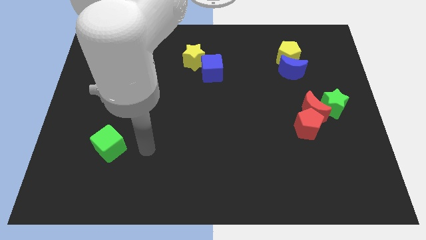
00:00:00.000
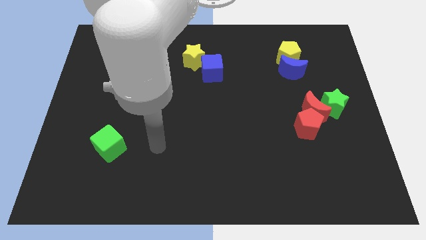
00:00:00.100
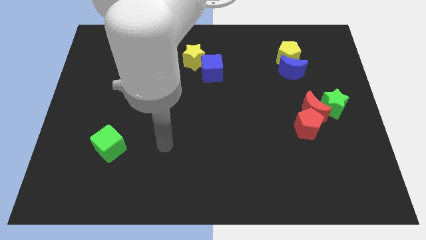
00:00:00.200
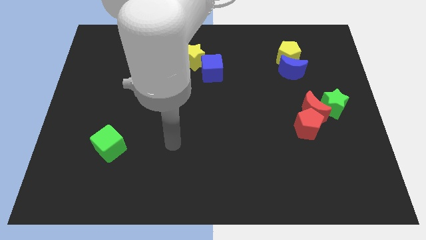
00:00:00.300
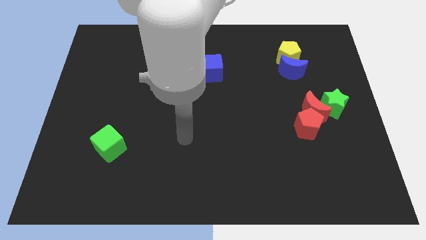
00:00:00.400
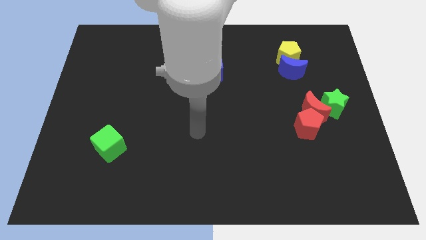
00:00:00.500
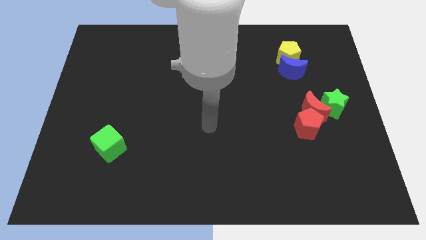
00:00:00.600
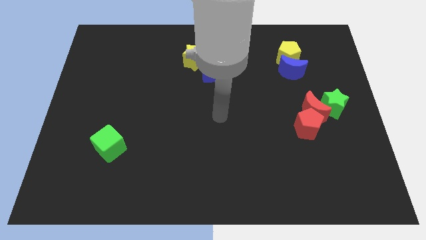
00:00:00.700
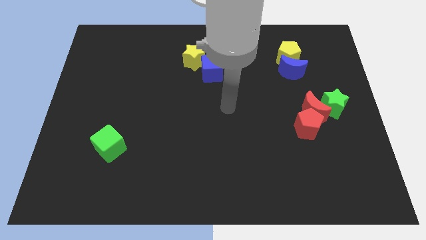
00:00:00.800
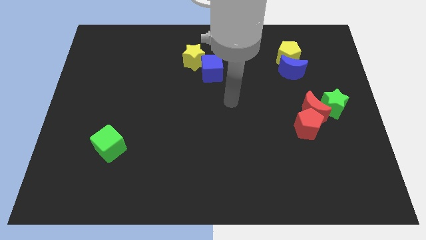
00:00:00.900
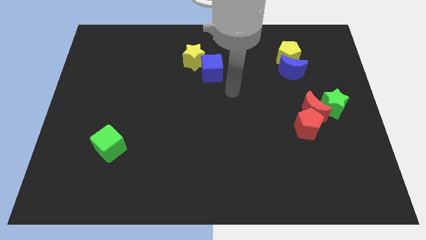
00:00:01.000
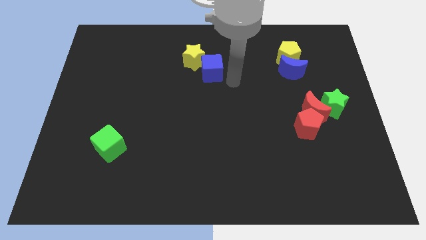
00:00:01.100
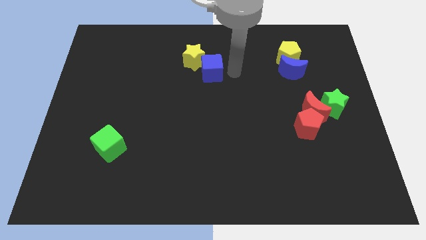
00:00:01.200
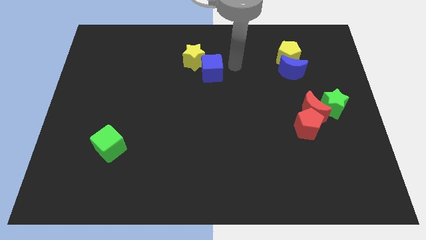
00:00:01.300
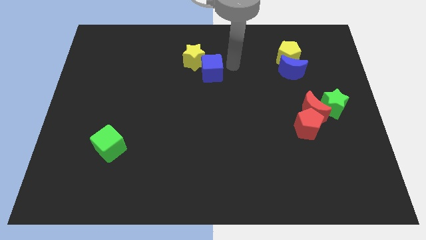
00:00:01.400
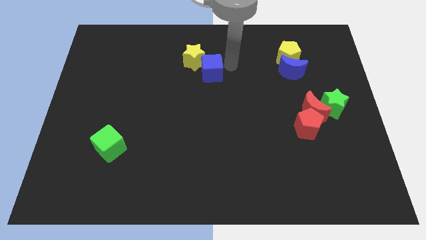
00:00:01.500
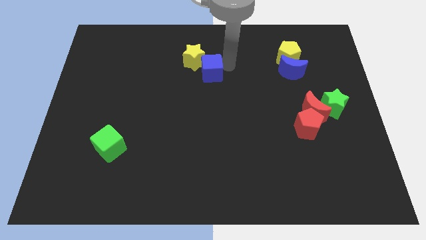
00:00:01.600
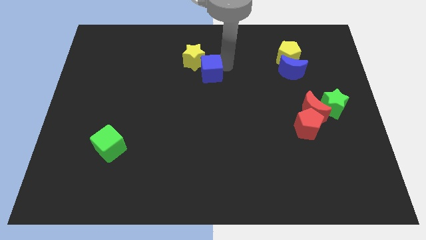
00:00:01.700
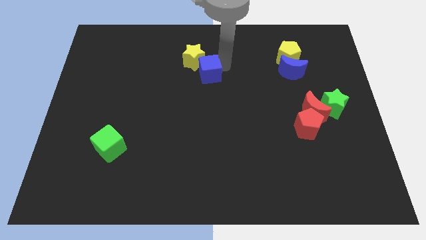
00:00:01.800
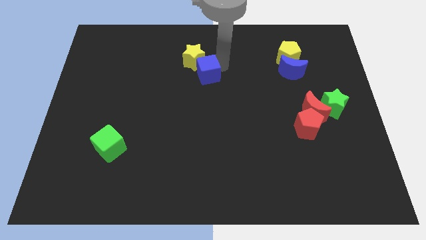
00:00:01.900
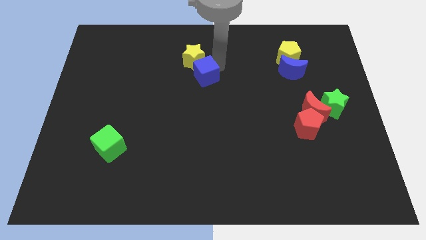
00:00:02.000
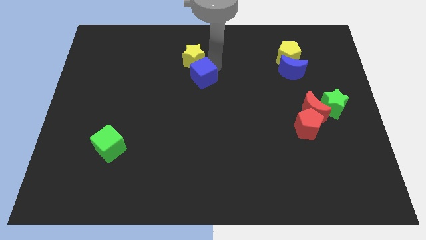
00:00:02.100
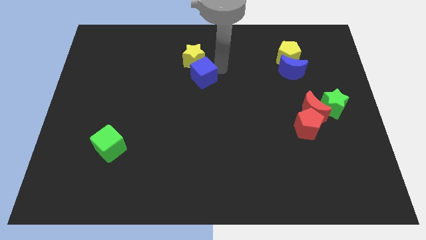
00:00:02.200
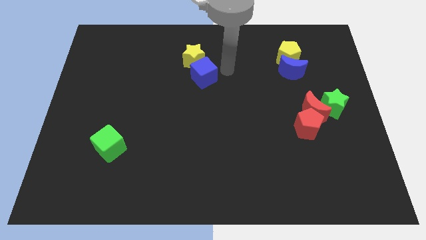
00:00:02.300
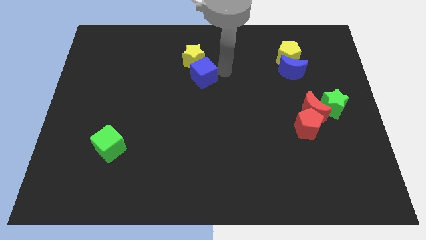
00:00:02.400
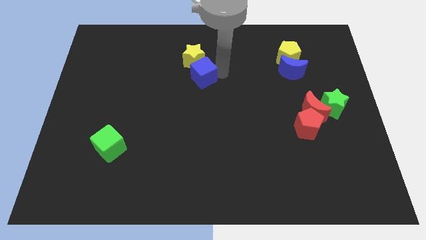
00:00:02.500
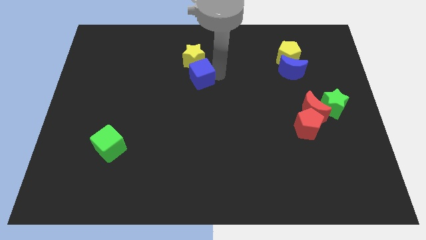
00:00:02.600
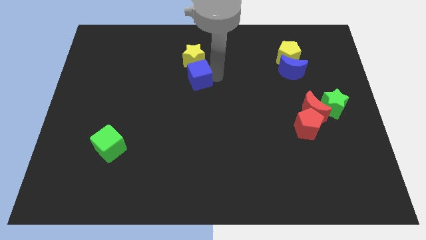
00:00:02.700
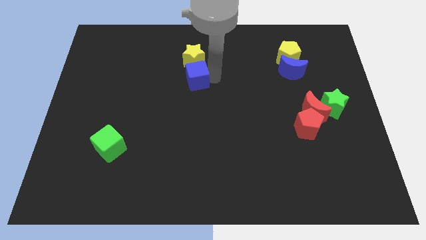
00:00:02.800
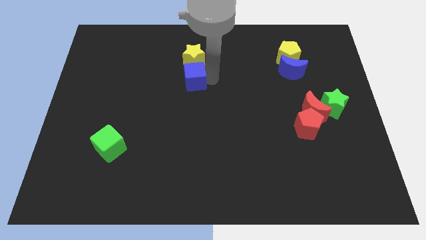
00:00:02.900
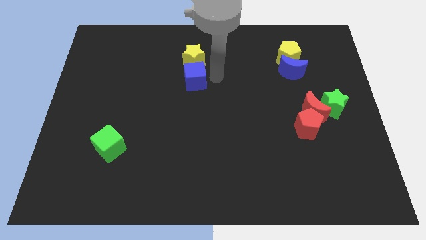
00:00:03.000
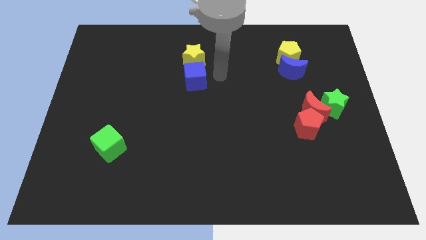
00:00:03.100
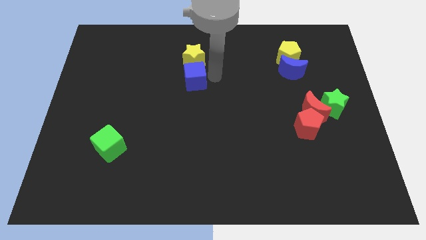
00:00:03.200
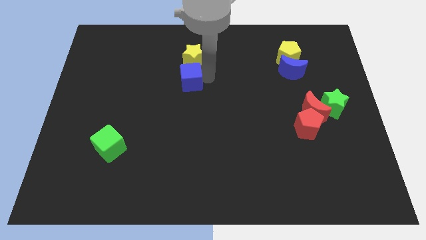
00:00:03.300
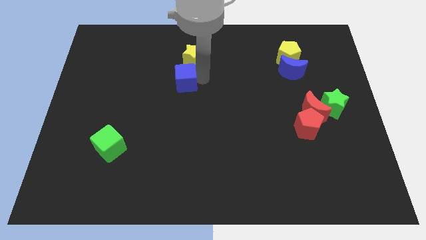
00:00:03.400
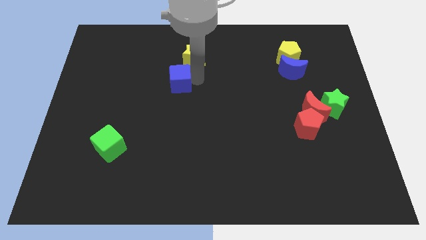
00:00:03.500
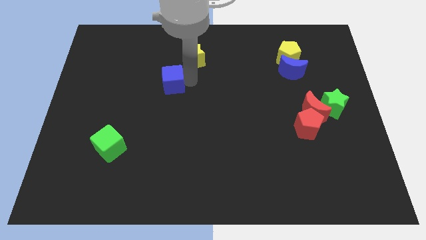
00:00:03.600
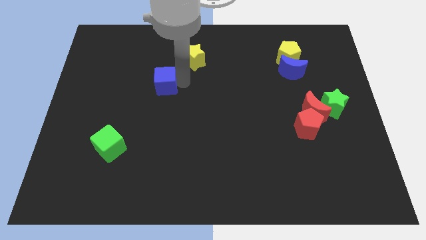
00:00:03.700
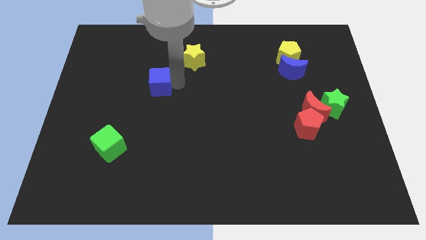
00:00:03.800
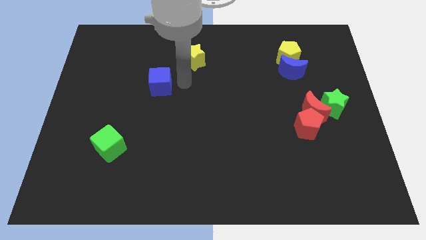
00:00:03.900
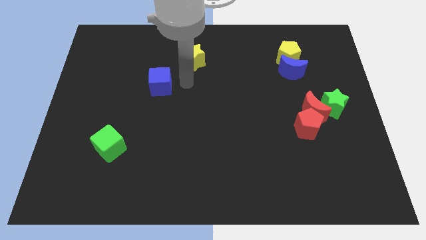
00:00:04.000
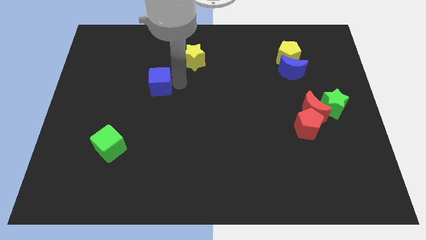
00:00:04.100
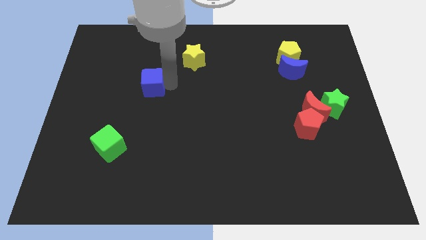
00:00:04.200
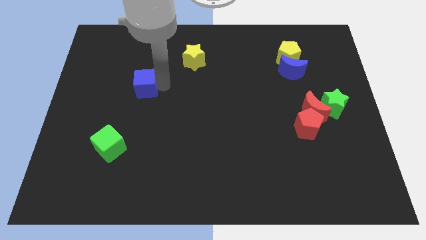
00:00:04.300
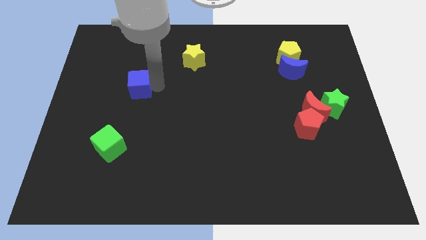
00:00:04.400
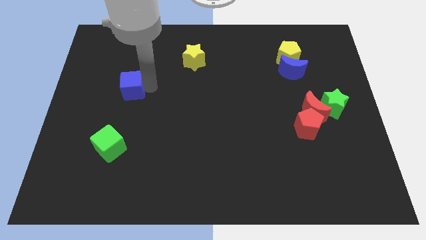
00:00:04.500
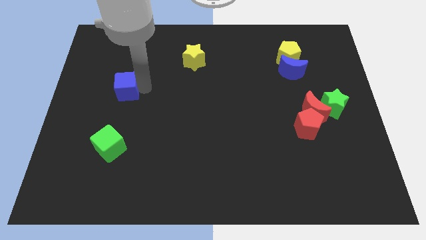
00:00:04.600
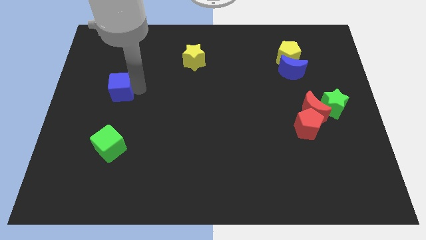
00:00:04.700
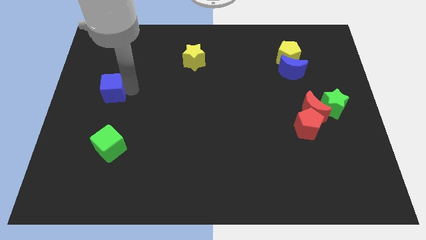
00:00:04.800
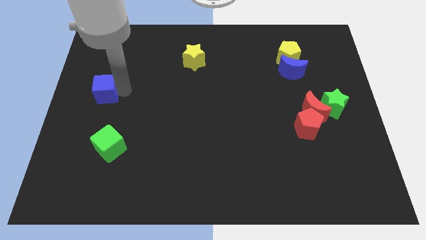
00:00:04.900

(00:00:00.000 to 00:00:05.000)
put the blue cube to the center left

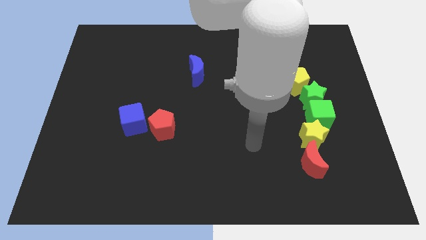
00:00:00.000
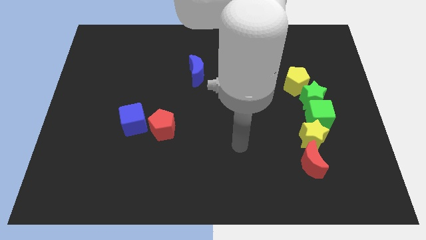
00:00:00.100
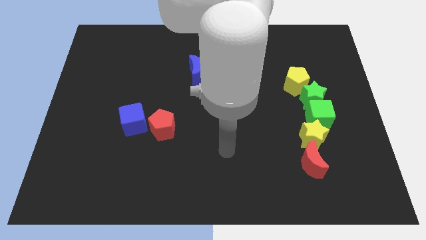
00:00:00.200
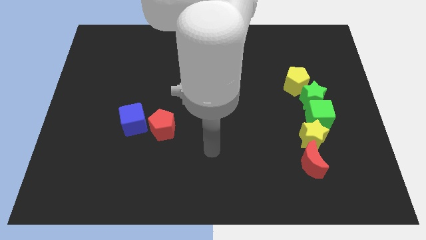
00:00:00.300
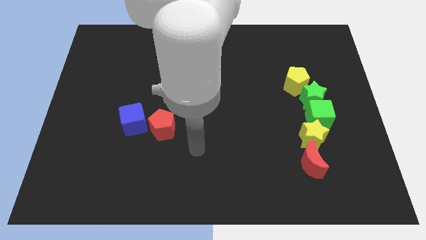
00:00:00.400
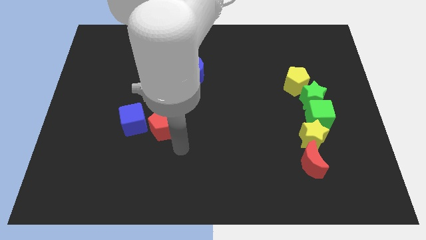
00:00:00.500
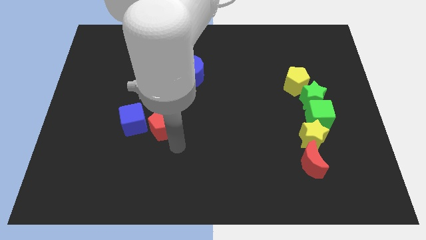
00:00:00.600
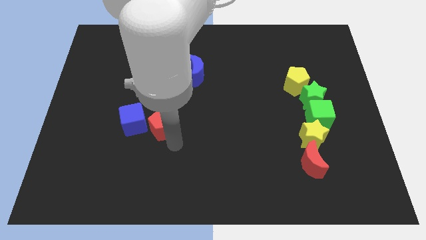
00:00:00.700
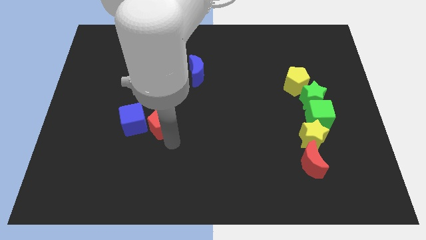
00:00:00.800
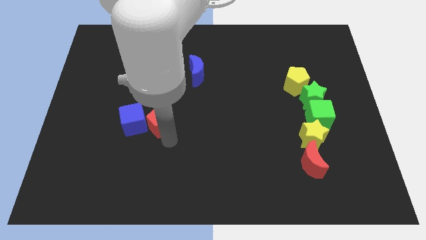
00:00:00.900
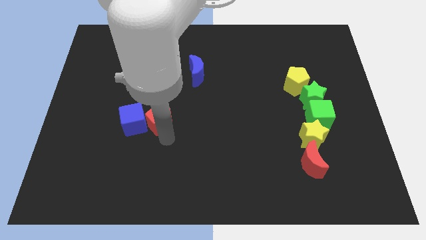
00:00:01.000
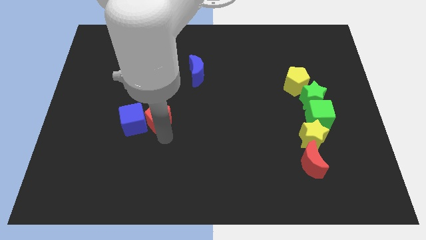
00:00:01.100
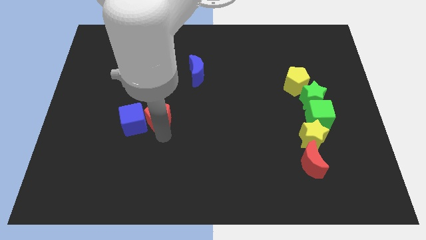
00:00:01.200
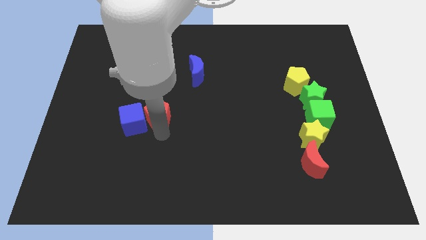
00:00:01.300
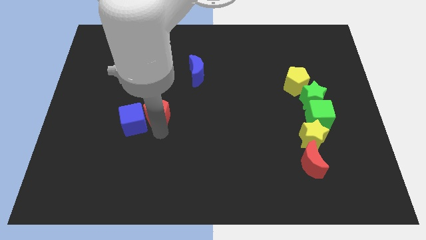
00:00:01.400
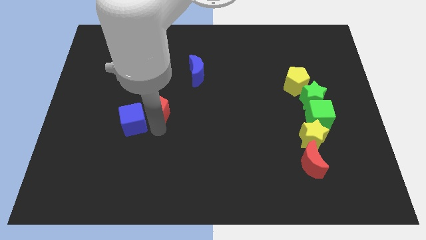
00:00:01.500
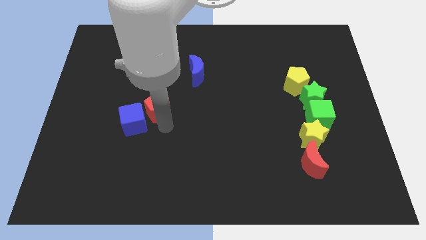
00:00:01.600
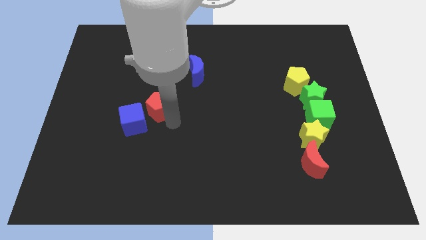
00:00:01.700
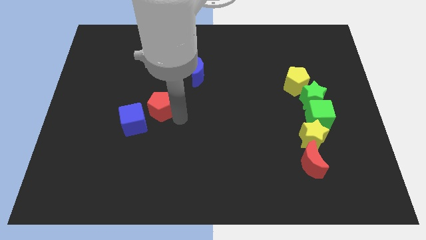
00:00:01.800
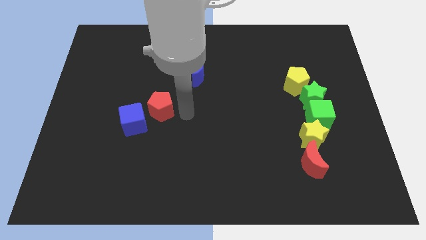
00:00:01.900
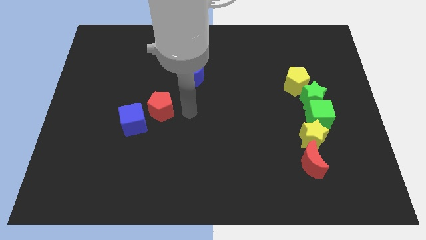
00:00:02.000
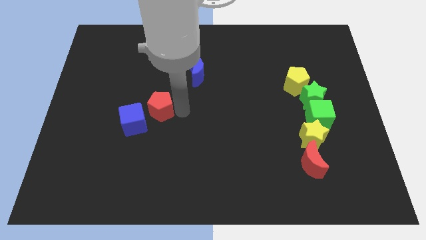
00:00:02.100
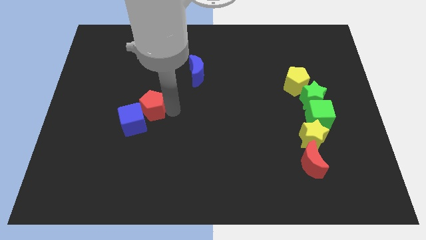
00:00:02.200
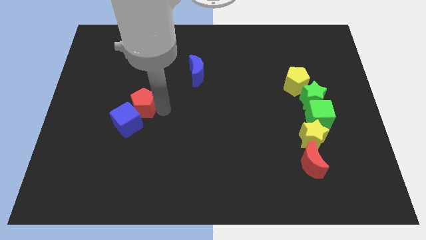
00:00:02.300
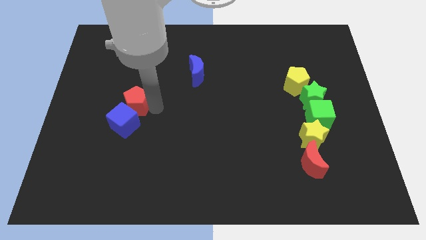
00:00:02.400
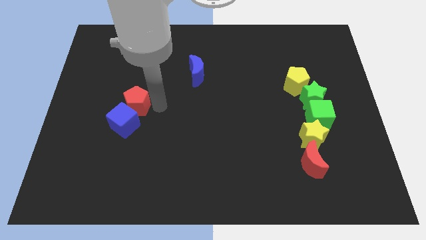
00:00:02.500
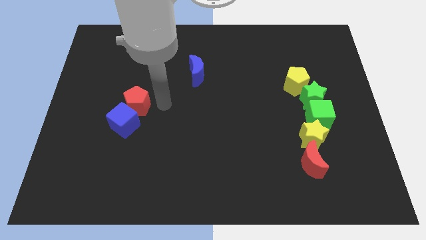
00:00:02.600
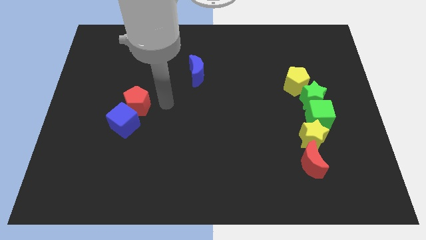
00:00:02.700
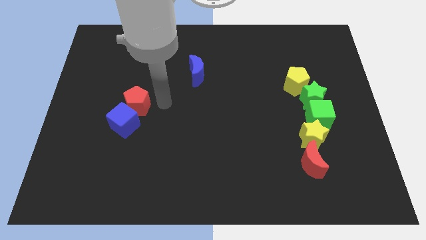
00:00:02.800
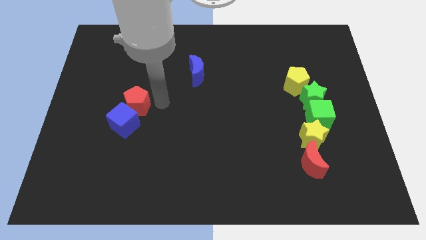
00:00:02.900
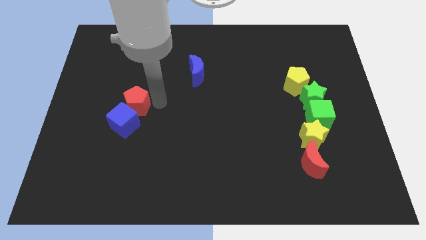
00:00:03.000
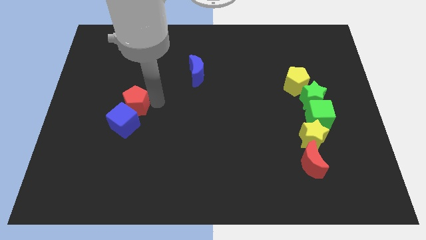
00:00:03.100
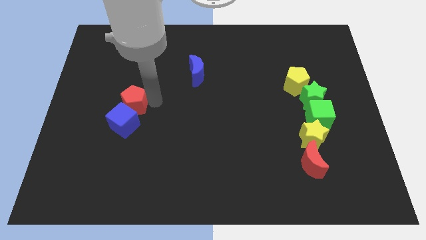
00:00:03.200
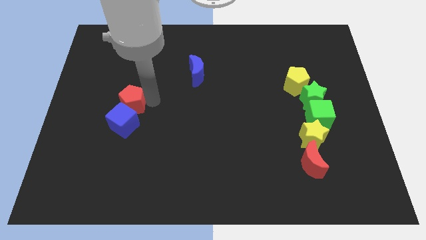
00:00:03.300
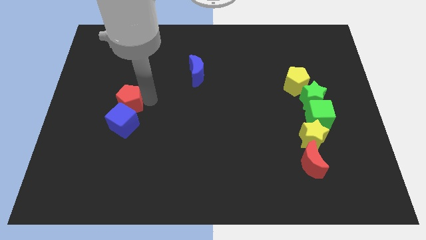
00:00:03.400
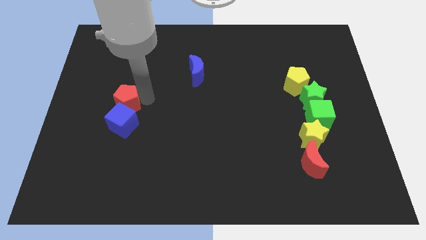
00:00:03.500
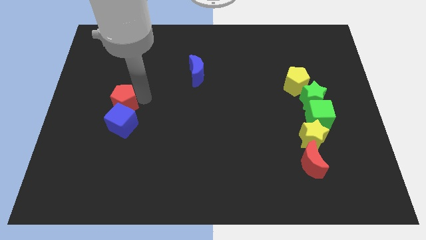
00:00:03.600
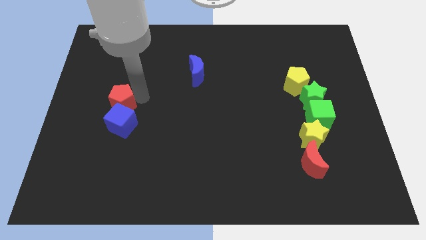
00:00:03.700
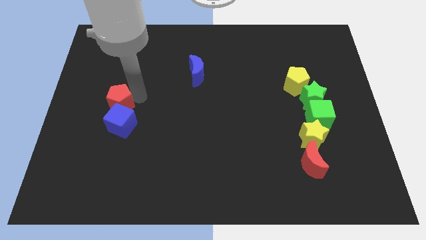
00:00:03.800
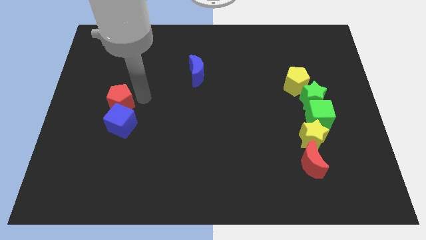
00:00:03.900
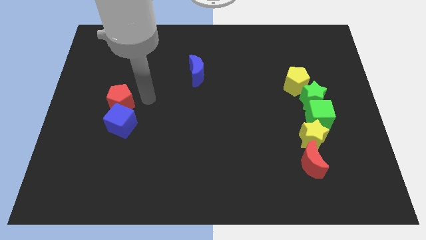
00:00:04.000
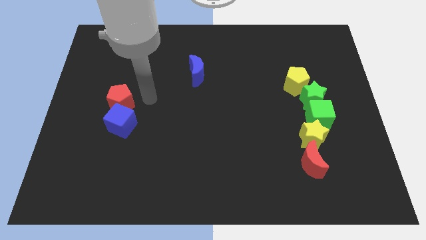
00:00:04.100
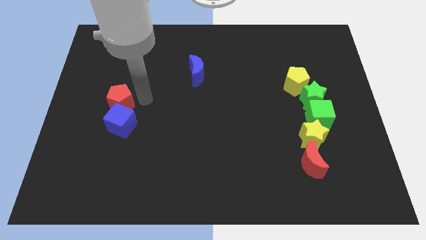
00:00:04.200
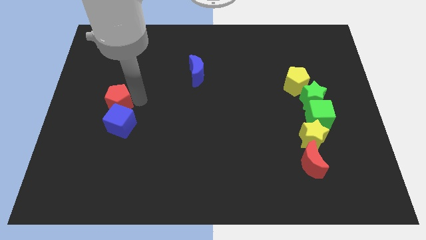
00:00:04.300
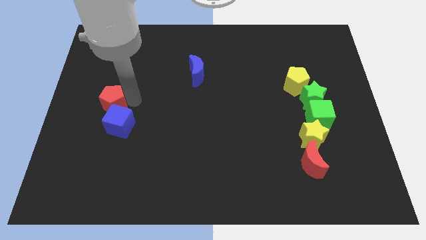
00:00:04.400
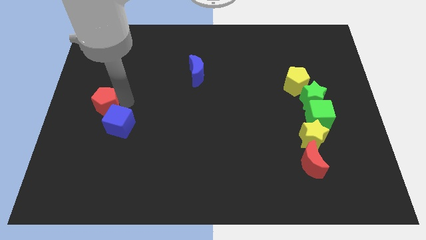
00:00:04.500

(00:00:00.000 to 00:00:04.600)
move the red pentagon to the center left
